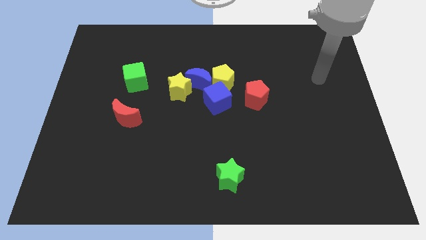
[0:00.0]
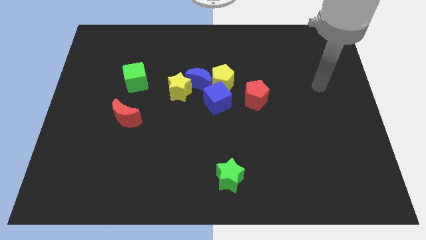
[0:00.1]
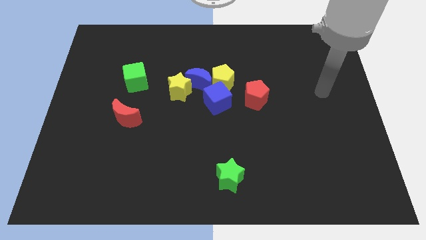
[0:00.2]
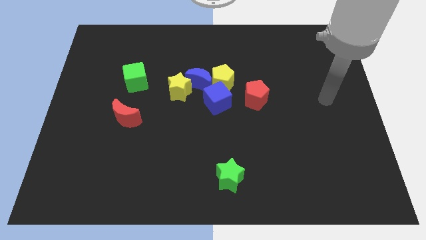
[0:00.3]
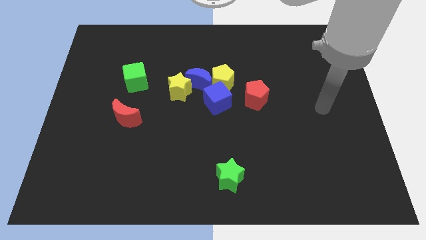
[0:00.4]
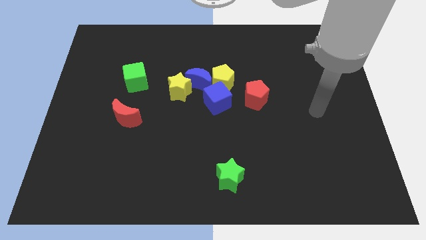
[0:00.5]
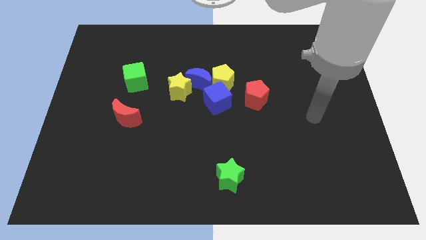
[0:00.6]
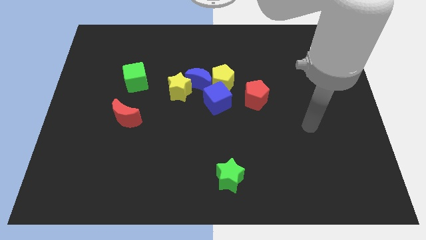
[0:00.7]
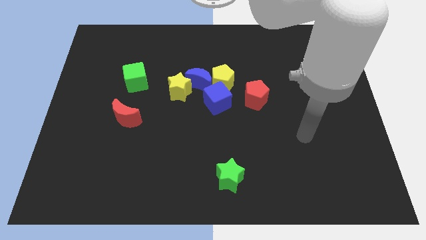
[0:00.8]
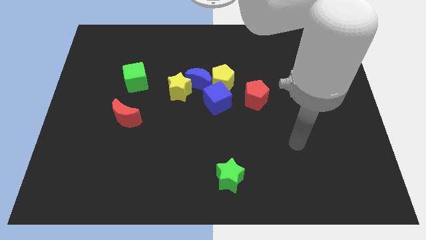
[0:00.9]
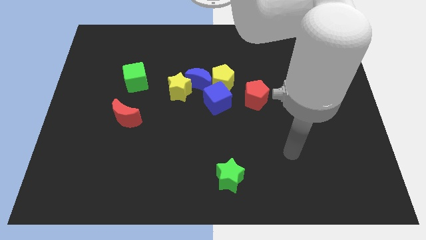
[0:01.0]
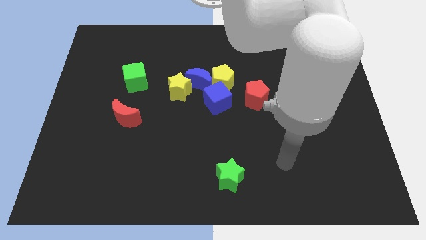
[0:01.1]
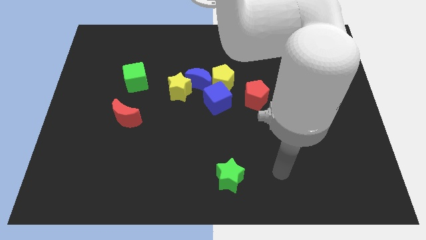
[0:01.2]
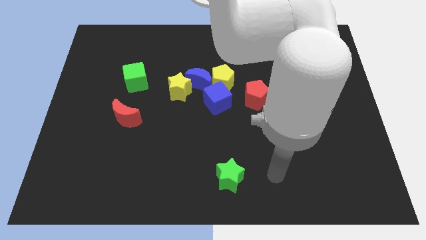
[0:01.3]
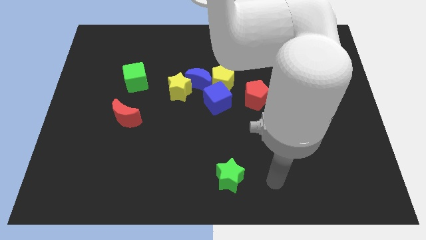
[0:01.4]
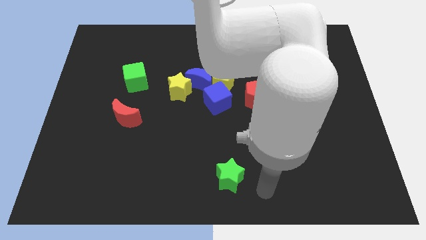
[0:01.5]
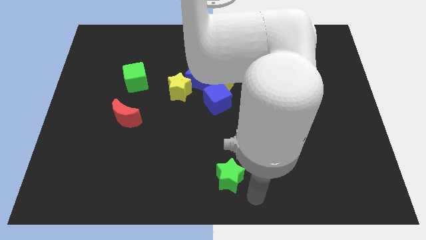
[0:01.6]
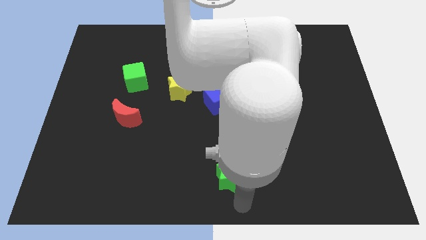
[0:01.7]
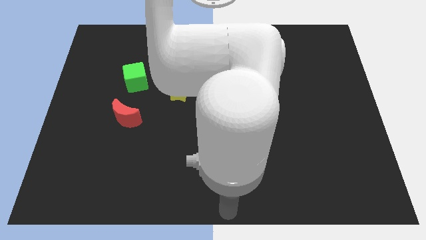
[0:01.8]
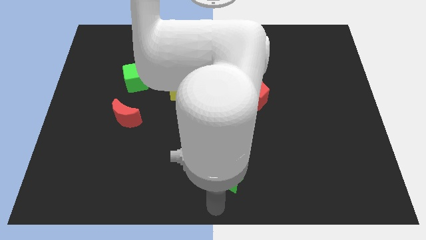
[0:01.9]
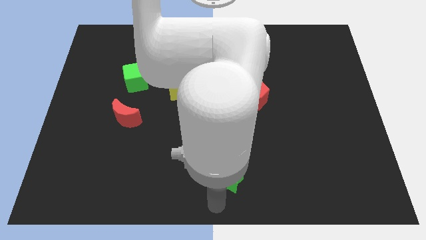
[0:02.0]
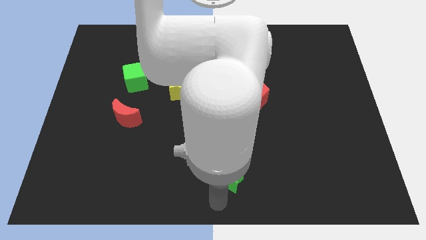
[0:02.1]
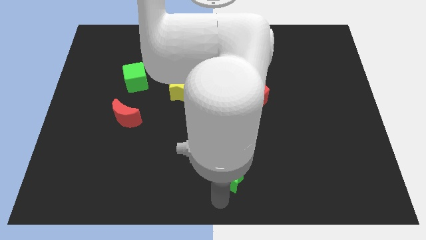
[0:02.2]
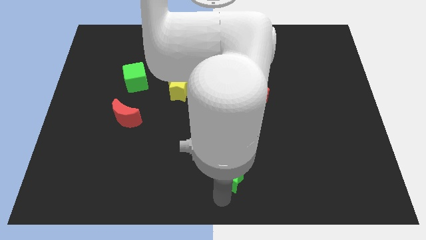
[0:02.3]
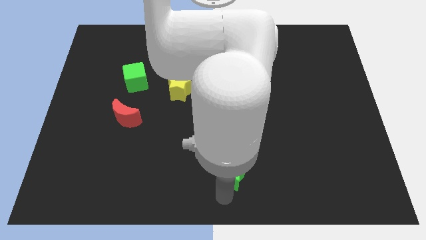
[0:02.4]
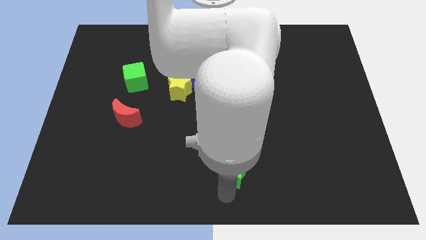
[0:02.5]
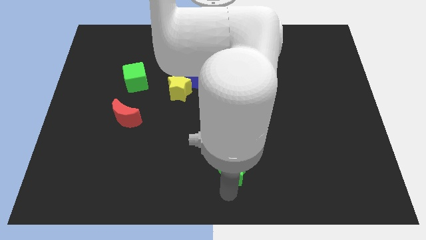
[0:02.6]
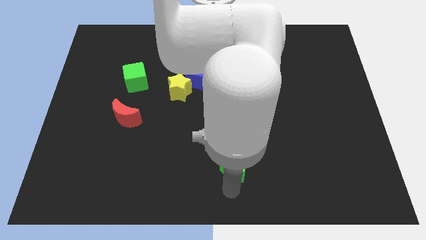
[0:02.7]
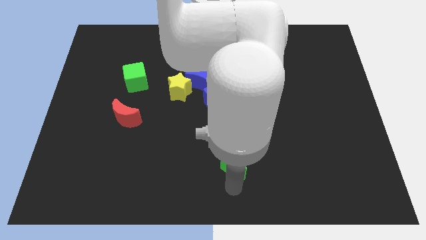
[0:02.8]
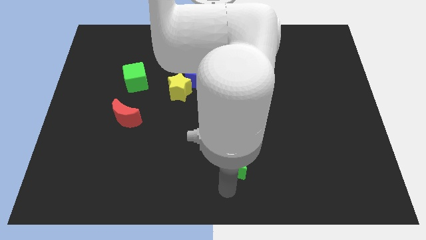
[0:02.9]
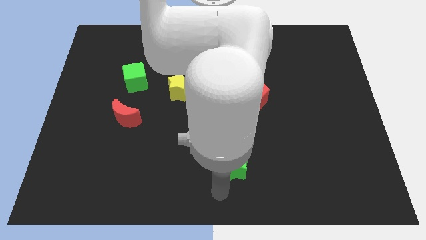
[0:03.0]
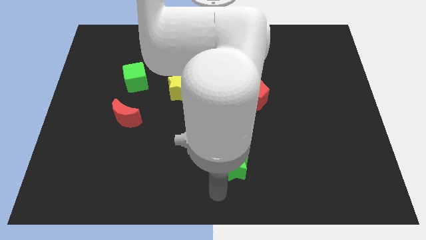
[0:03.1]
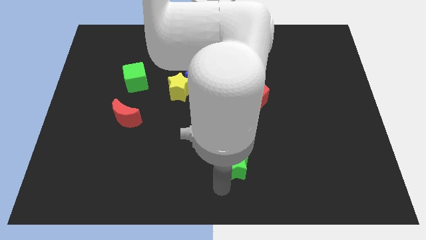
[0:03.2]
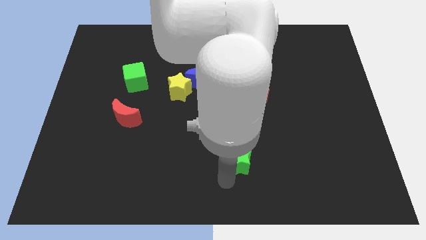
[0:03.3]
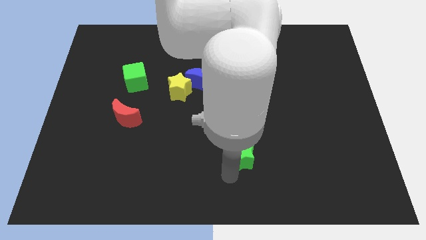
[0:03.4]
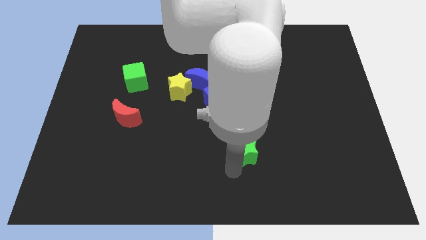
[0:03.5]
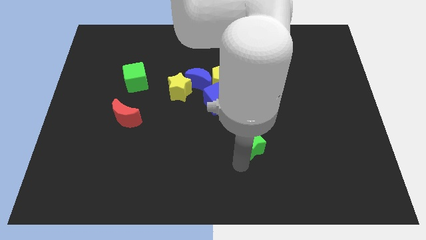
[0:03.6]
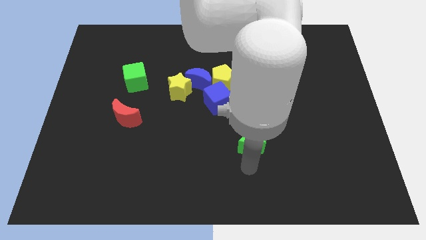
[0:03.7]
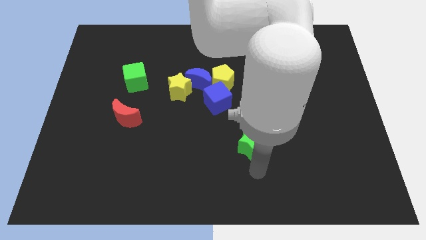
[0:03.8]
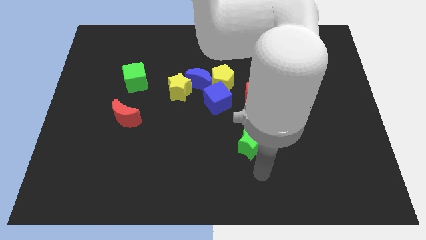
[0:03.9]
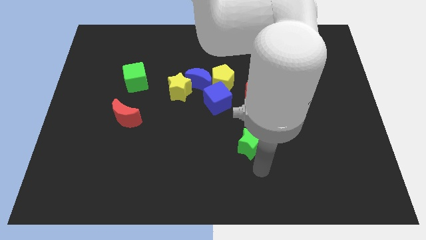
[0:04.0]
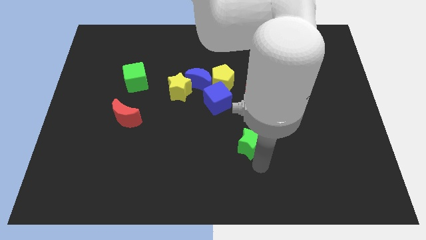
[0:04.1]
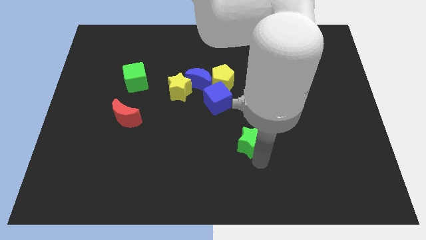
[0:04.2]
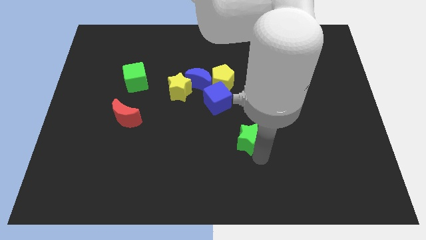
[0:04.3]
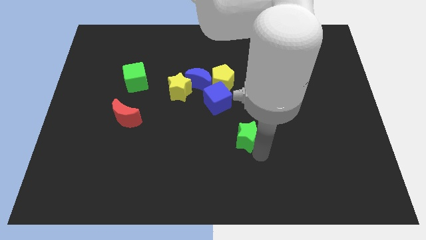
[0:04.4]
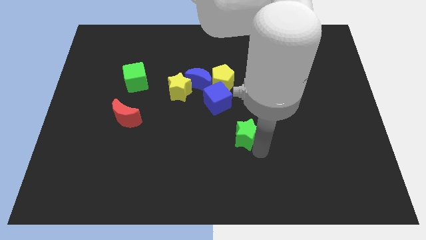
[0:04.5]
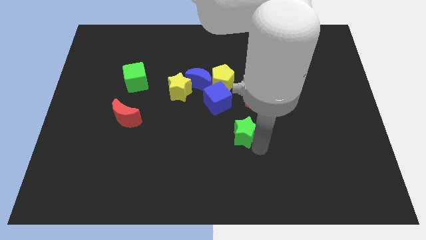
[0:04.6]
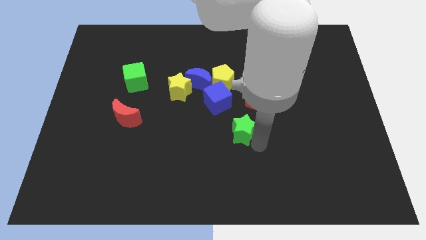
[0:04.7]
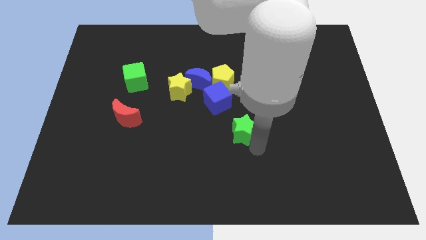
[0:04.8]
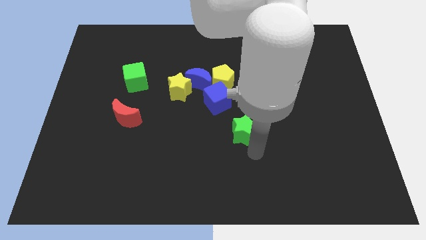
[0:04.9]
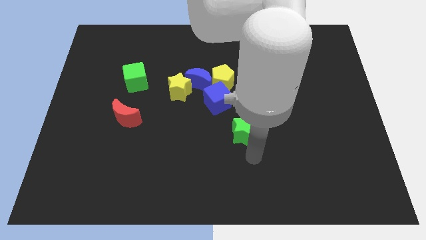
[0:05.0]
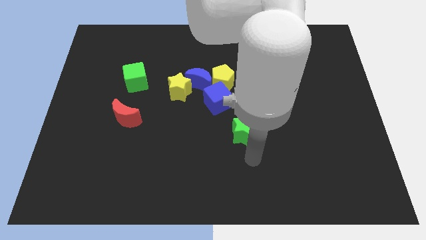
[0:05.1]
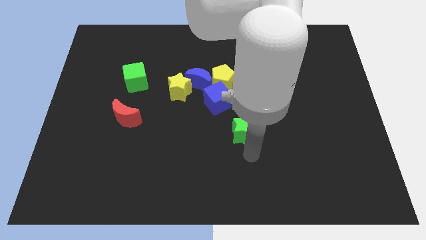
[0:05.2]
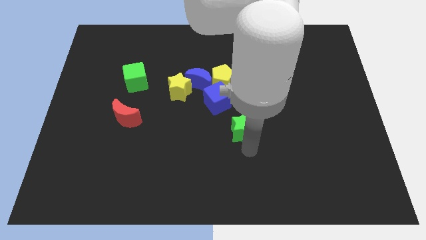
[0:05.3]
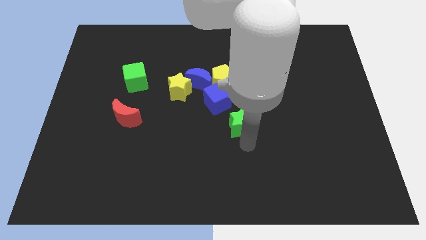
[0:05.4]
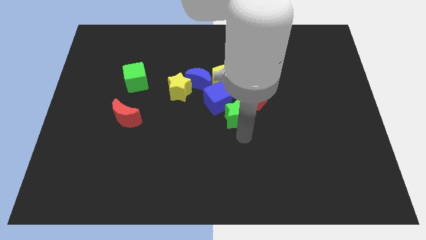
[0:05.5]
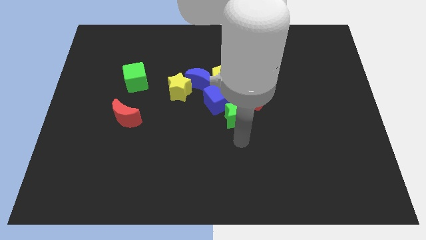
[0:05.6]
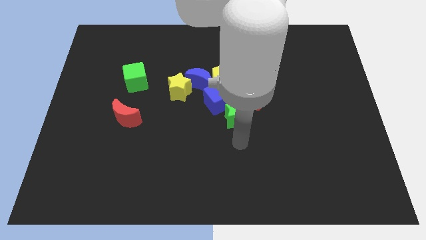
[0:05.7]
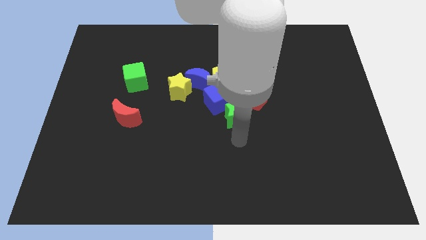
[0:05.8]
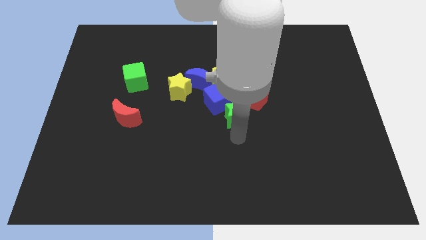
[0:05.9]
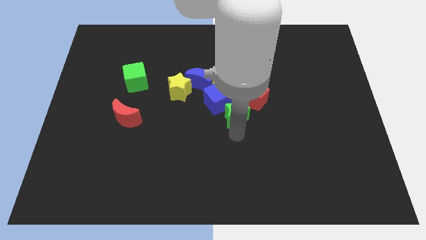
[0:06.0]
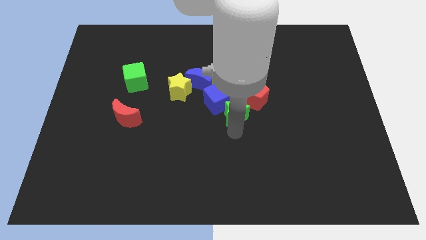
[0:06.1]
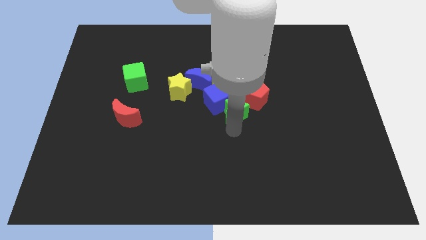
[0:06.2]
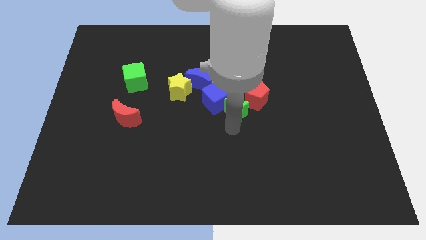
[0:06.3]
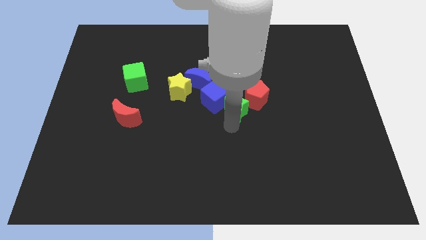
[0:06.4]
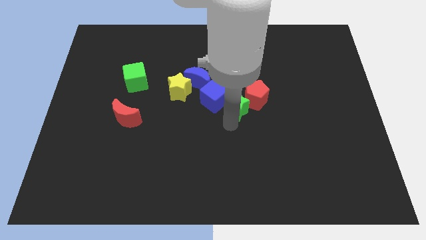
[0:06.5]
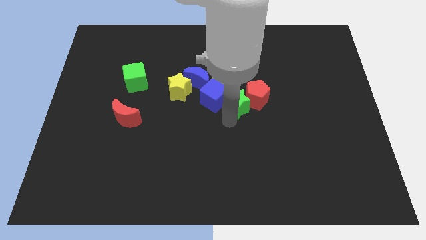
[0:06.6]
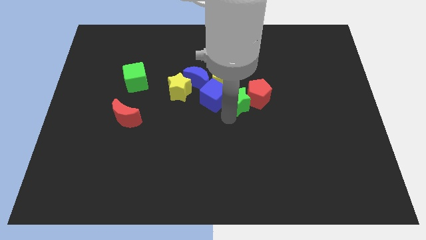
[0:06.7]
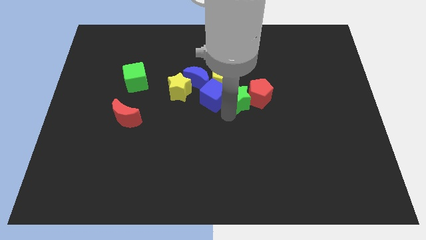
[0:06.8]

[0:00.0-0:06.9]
push the green star up

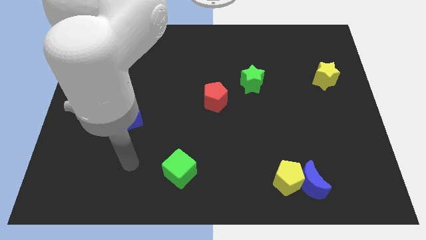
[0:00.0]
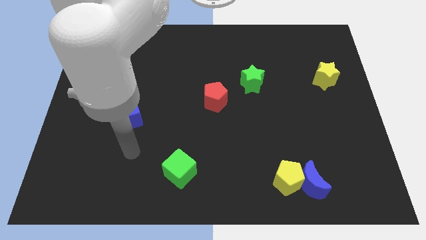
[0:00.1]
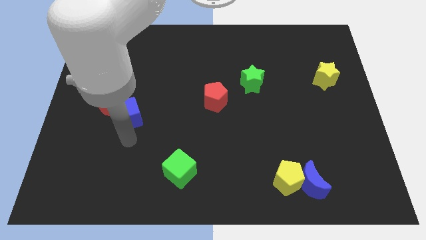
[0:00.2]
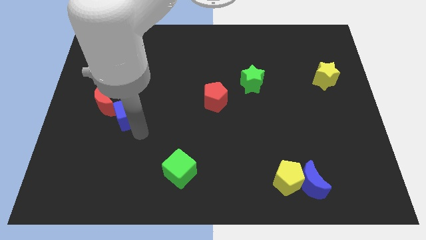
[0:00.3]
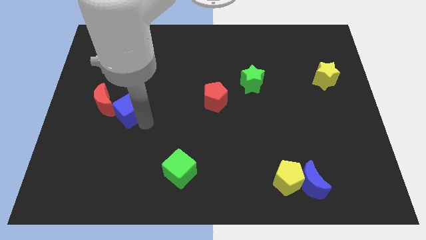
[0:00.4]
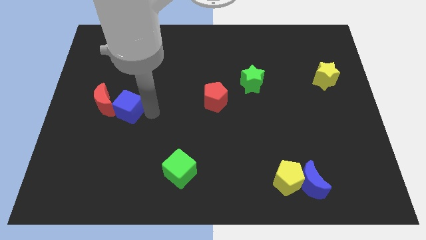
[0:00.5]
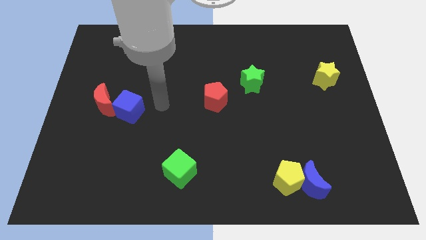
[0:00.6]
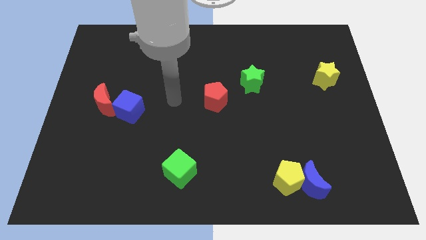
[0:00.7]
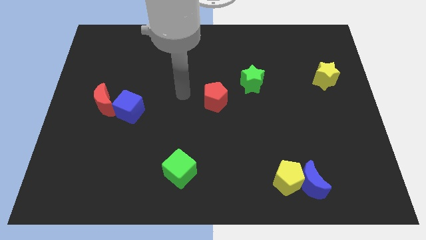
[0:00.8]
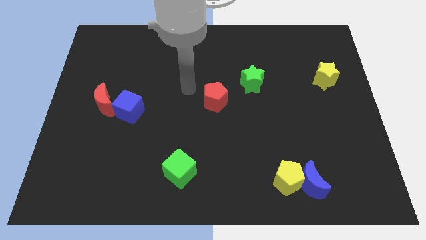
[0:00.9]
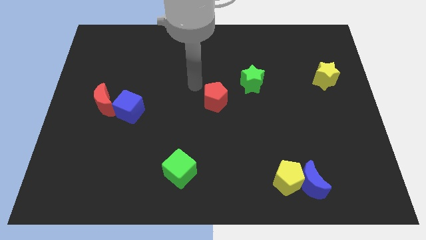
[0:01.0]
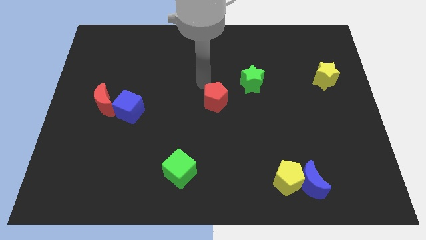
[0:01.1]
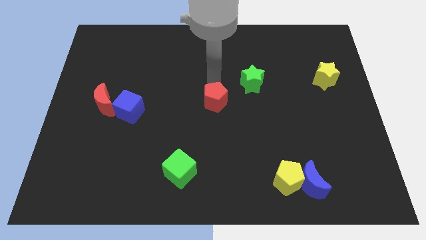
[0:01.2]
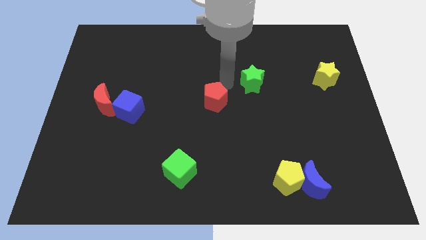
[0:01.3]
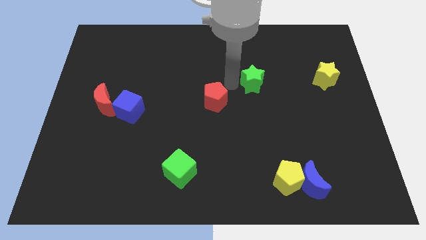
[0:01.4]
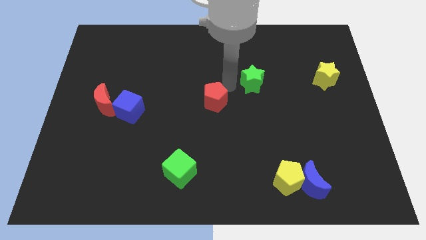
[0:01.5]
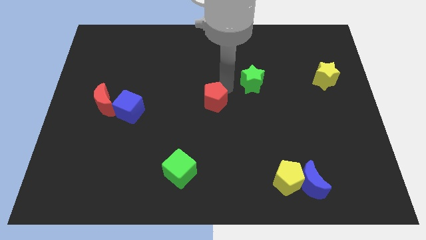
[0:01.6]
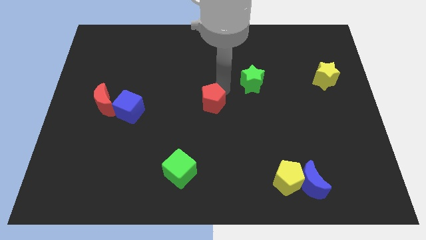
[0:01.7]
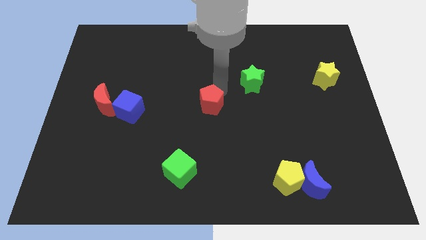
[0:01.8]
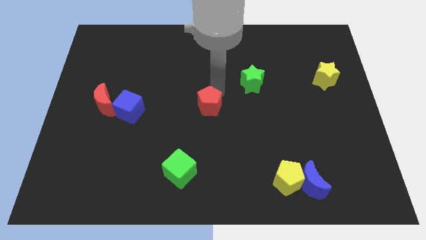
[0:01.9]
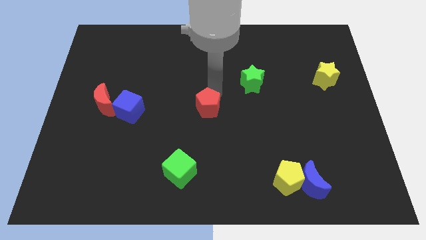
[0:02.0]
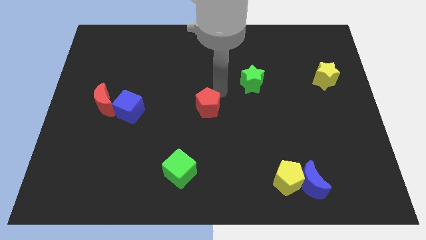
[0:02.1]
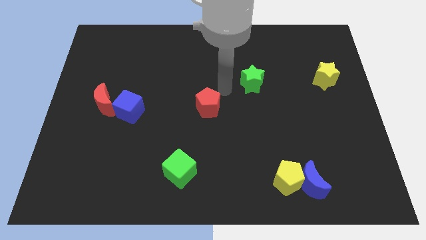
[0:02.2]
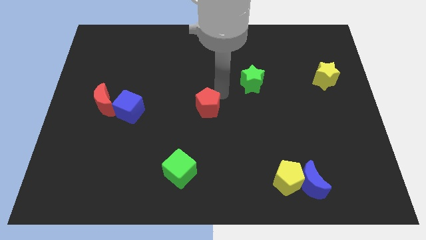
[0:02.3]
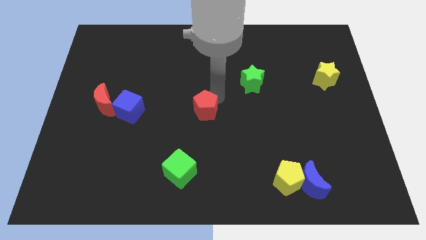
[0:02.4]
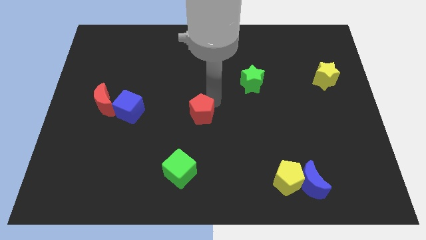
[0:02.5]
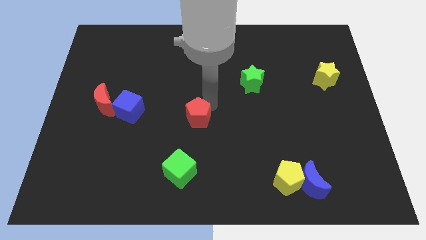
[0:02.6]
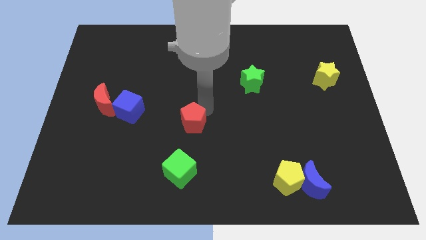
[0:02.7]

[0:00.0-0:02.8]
move the red pentagon a little bit down and then to the left
